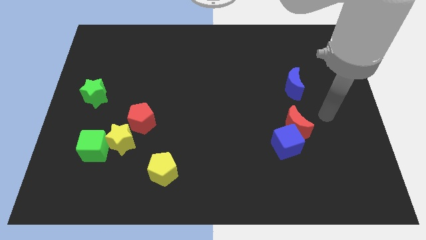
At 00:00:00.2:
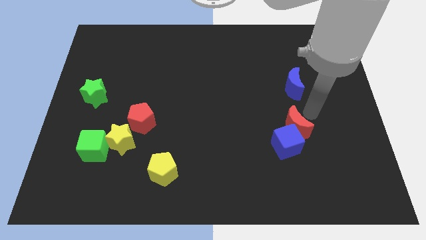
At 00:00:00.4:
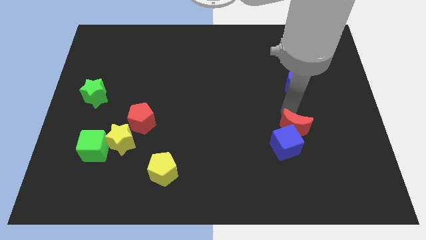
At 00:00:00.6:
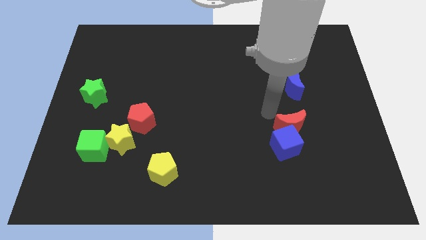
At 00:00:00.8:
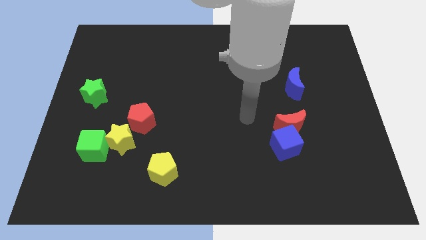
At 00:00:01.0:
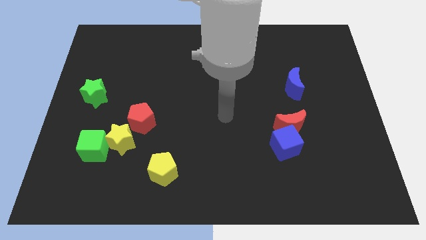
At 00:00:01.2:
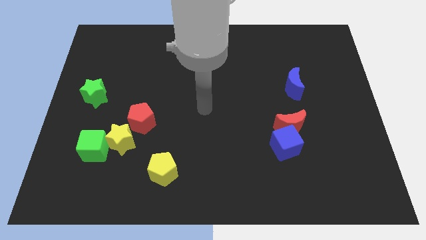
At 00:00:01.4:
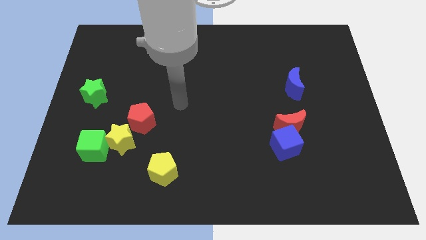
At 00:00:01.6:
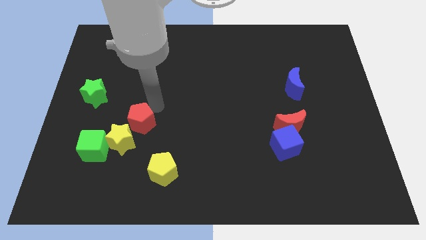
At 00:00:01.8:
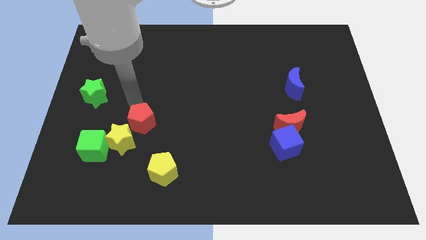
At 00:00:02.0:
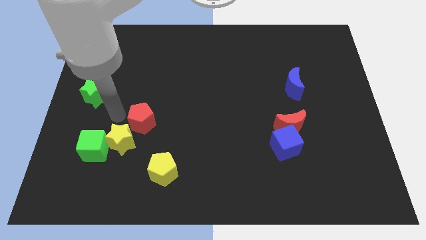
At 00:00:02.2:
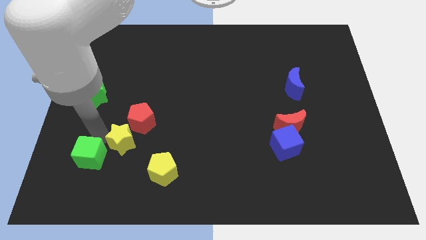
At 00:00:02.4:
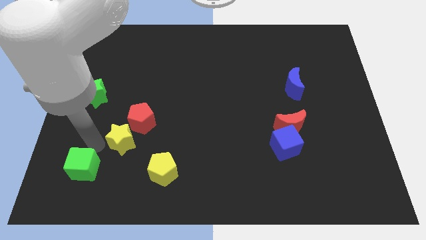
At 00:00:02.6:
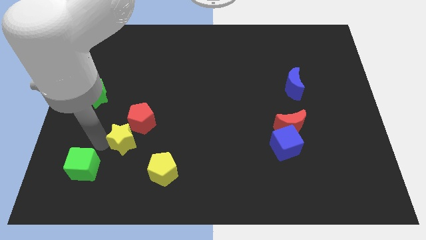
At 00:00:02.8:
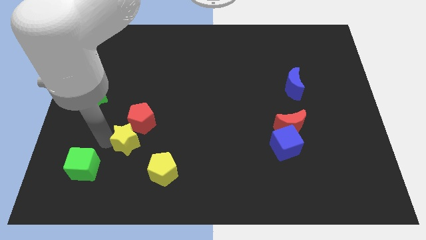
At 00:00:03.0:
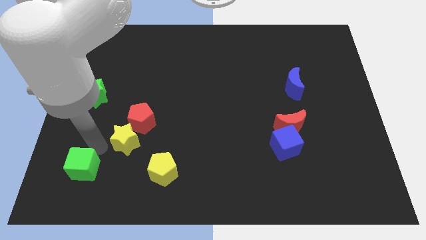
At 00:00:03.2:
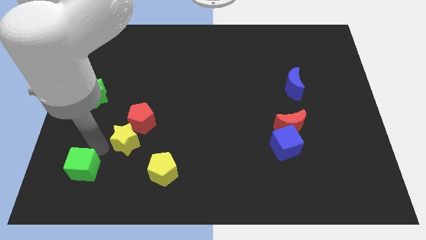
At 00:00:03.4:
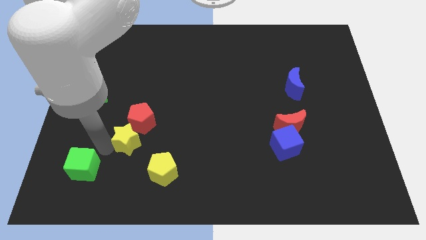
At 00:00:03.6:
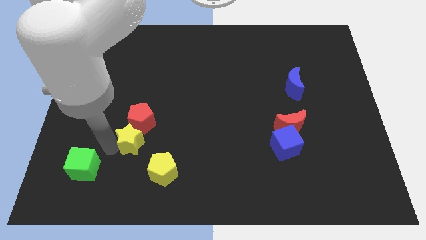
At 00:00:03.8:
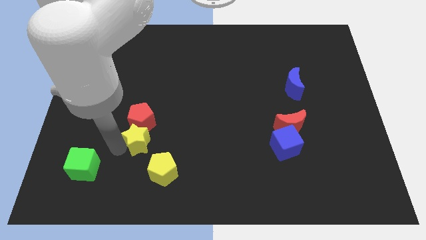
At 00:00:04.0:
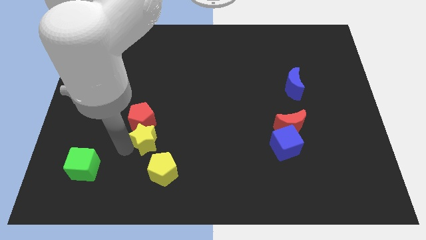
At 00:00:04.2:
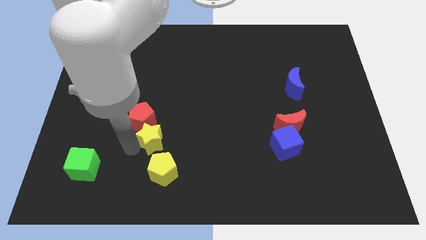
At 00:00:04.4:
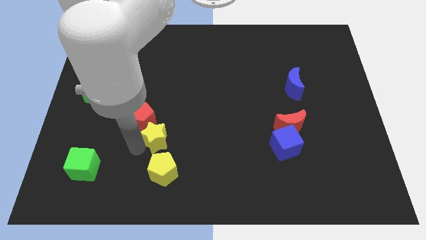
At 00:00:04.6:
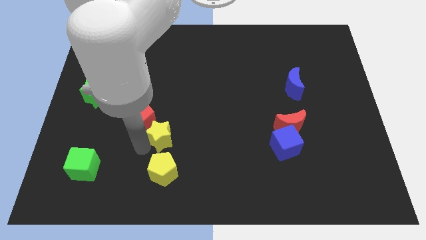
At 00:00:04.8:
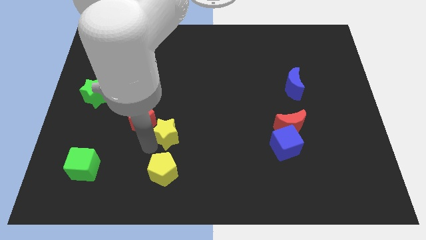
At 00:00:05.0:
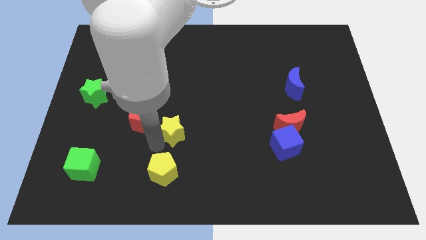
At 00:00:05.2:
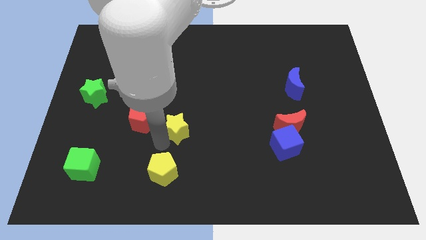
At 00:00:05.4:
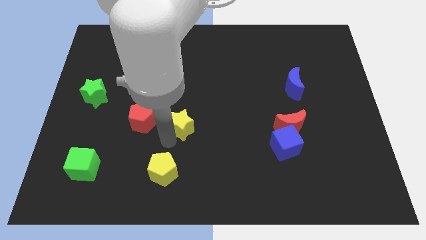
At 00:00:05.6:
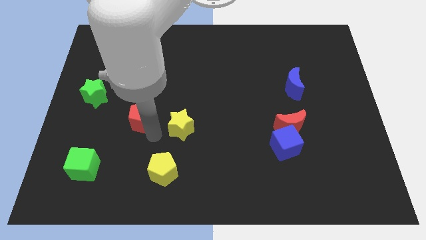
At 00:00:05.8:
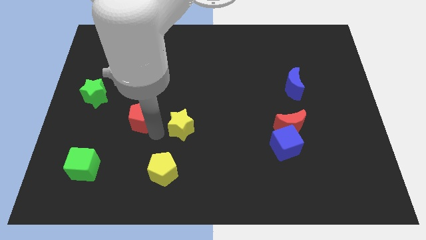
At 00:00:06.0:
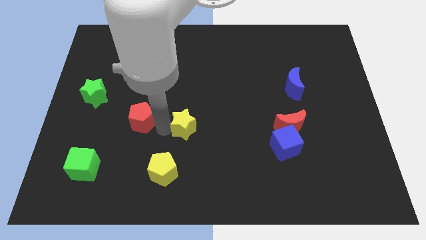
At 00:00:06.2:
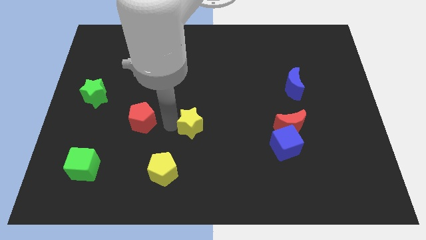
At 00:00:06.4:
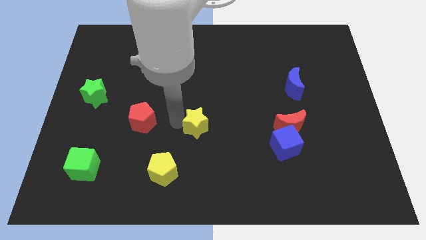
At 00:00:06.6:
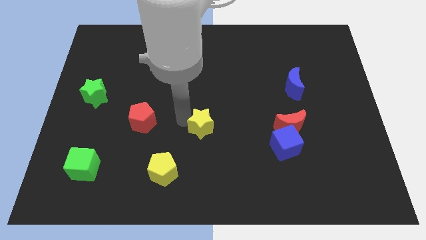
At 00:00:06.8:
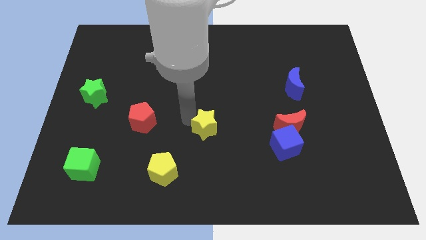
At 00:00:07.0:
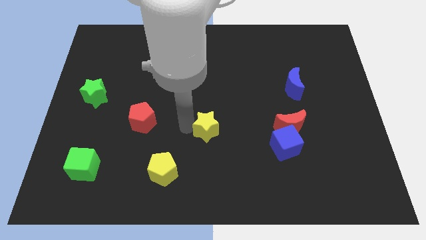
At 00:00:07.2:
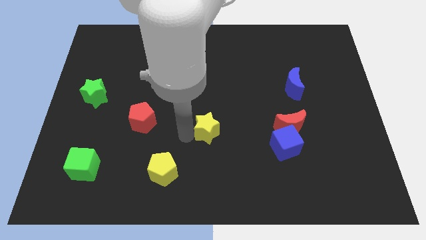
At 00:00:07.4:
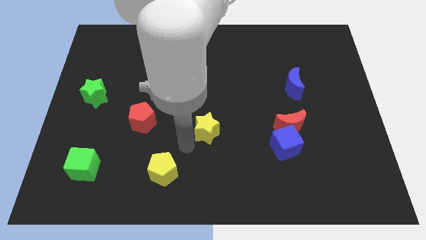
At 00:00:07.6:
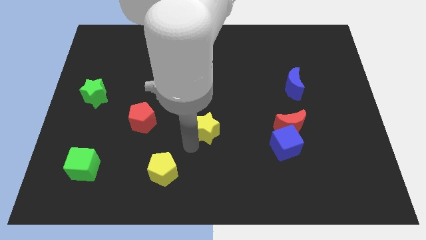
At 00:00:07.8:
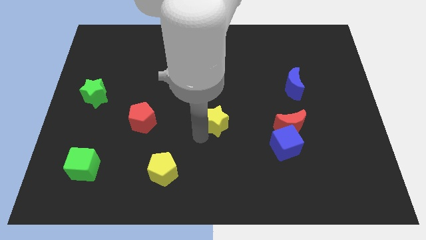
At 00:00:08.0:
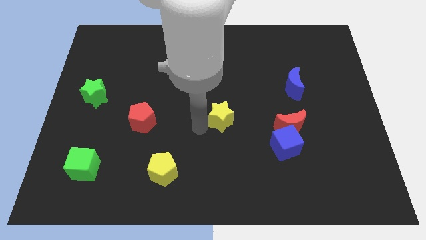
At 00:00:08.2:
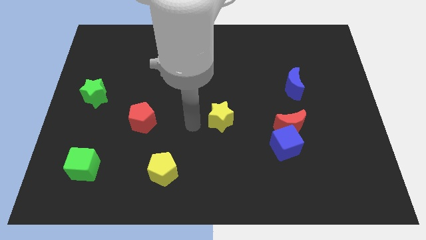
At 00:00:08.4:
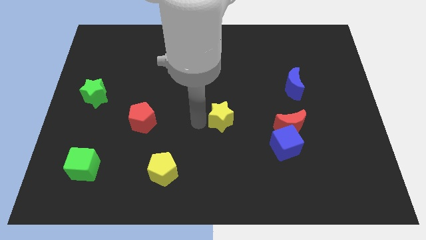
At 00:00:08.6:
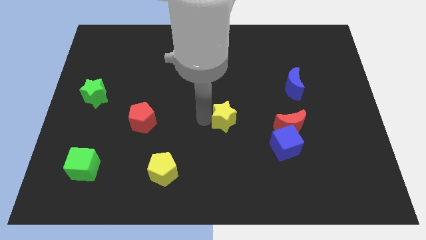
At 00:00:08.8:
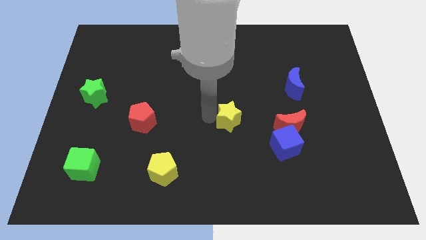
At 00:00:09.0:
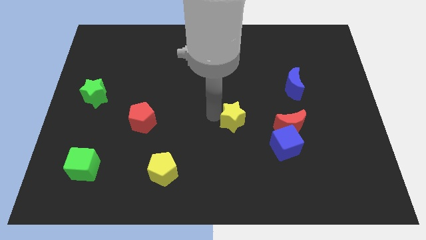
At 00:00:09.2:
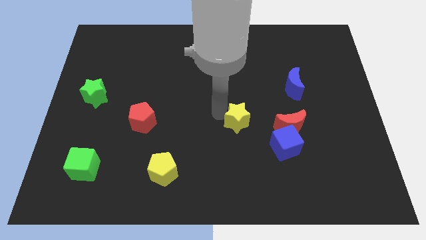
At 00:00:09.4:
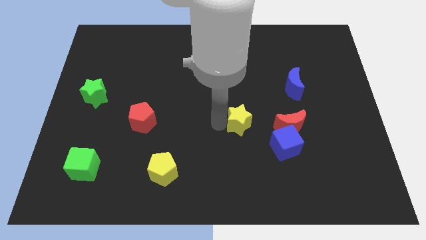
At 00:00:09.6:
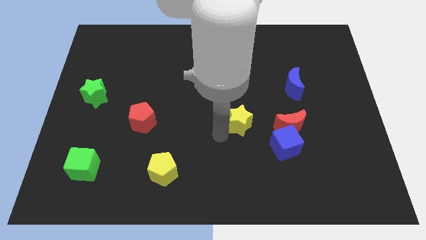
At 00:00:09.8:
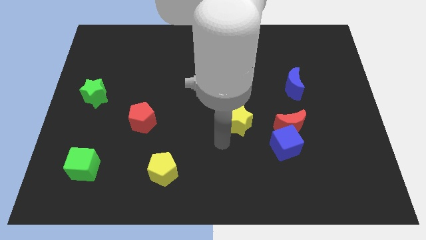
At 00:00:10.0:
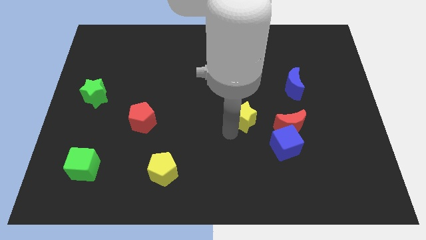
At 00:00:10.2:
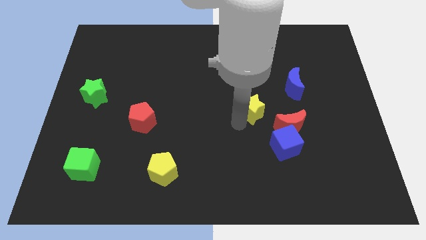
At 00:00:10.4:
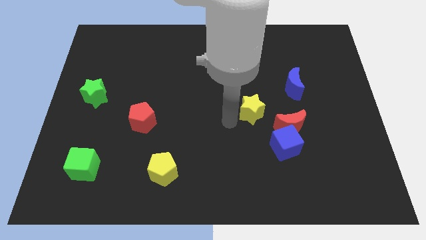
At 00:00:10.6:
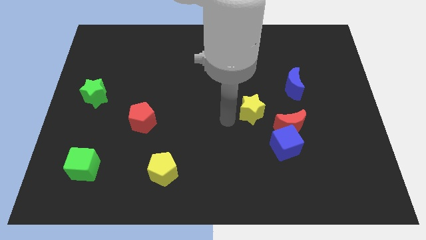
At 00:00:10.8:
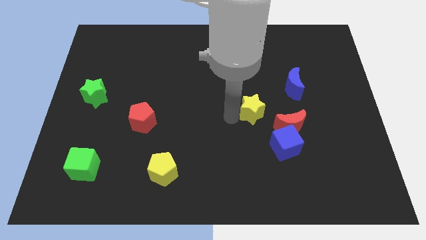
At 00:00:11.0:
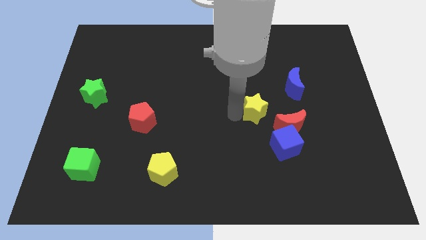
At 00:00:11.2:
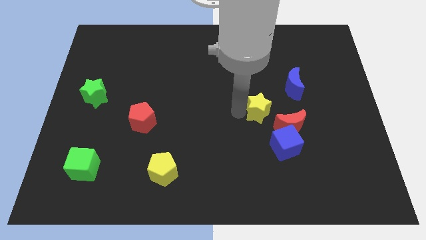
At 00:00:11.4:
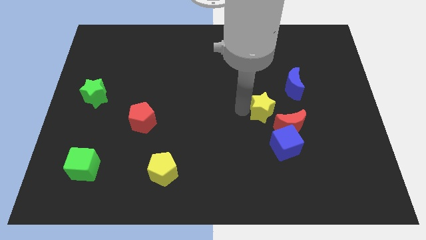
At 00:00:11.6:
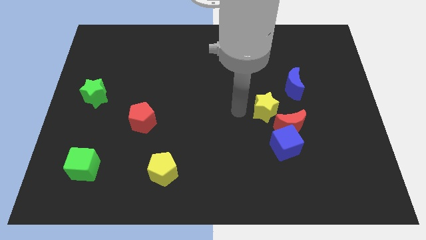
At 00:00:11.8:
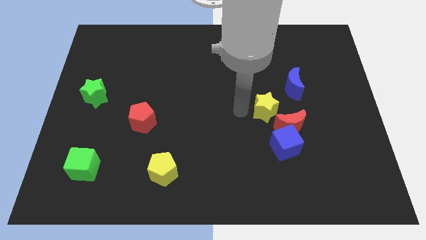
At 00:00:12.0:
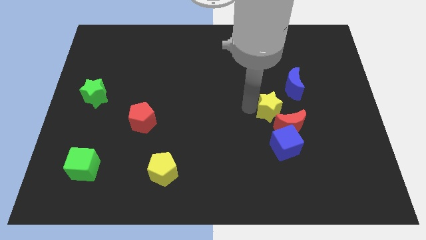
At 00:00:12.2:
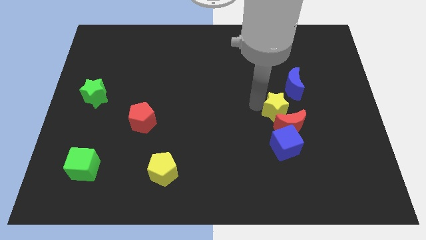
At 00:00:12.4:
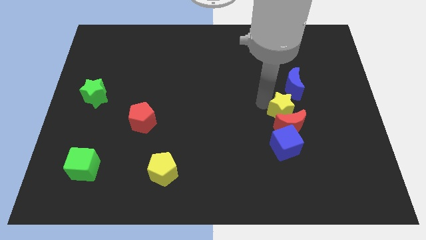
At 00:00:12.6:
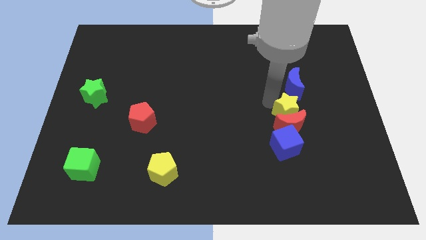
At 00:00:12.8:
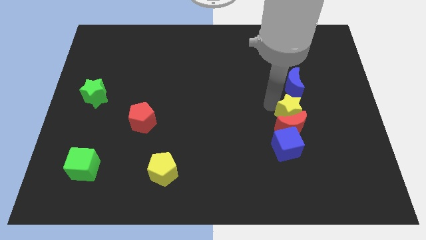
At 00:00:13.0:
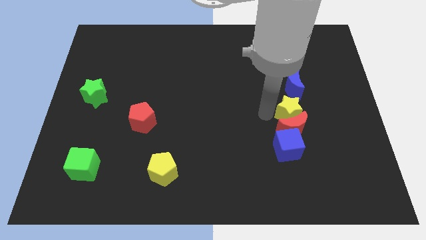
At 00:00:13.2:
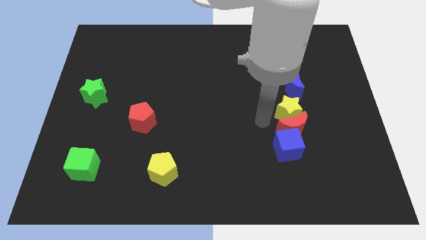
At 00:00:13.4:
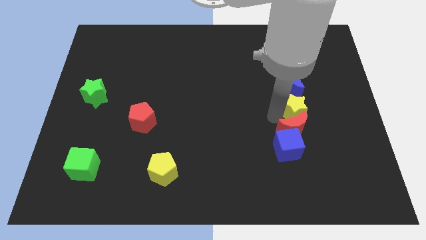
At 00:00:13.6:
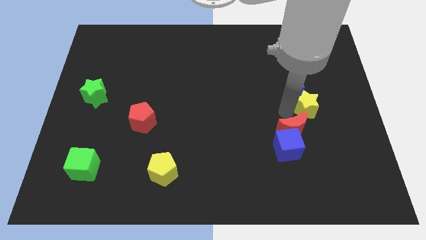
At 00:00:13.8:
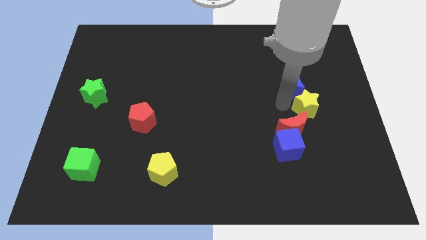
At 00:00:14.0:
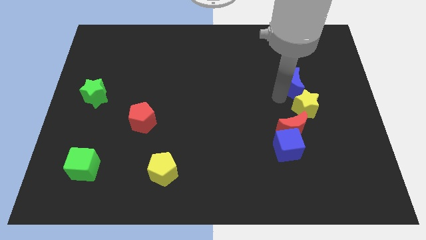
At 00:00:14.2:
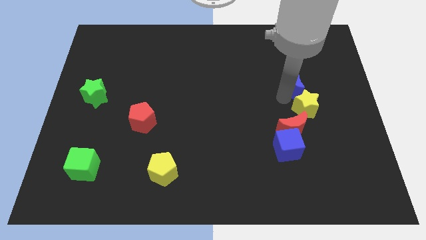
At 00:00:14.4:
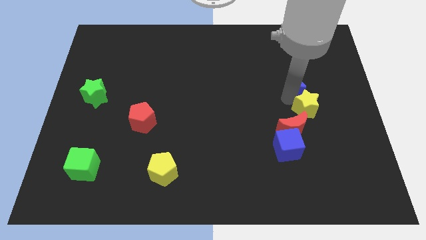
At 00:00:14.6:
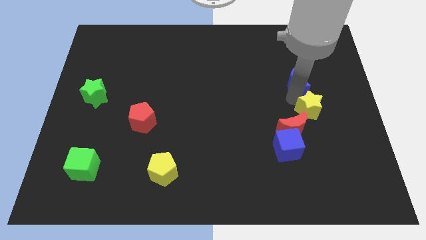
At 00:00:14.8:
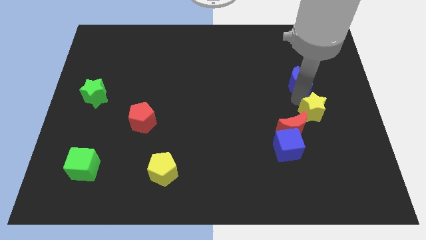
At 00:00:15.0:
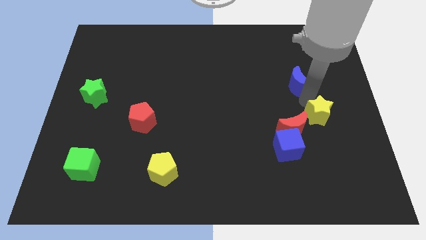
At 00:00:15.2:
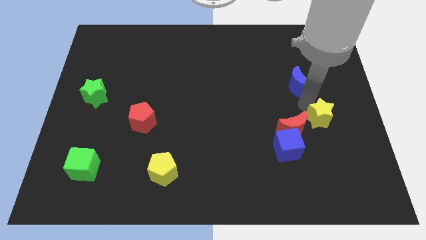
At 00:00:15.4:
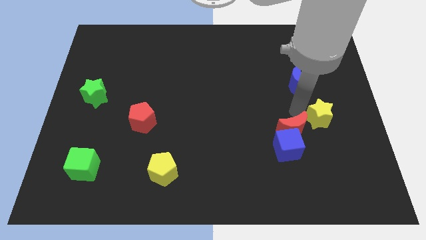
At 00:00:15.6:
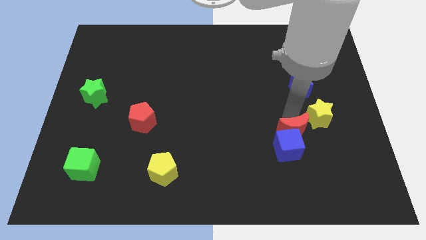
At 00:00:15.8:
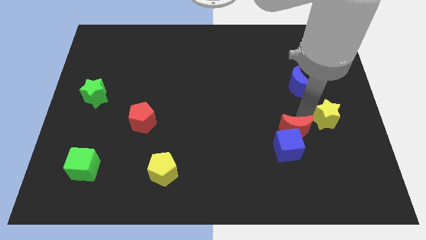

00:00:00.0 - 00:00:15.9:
slide the yellow star to the center right
